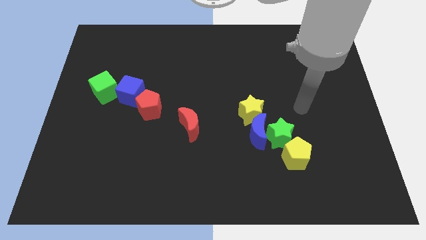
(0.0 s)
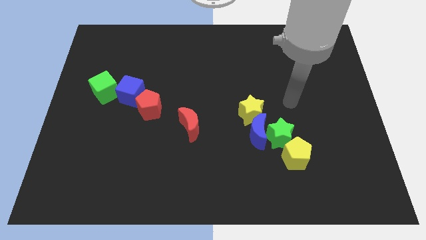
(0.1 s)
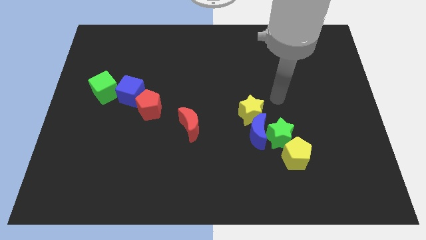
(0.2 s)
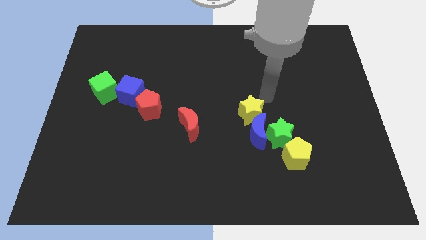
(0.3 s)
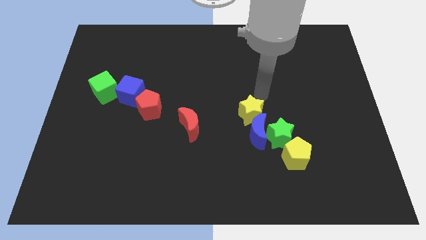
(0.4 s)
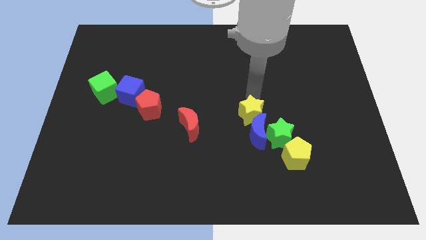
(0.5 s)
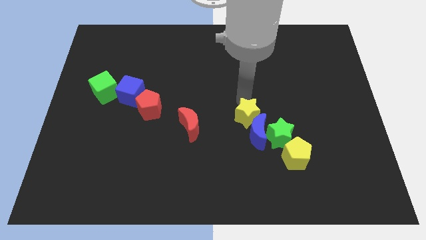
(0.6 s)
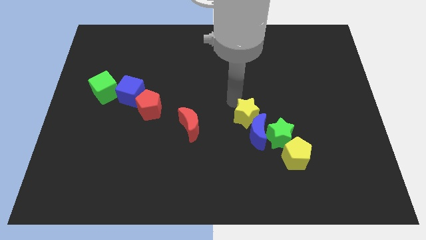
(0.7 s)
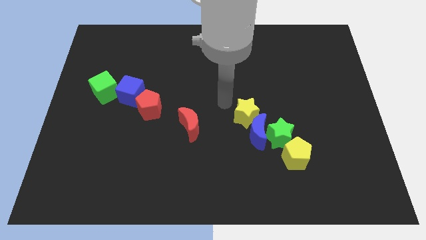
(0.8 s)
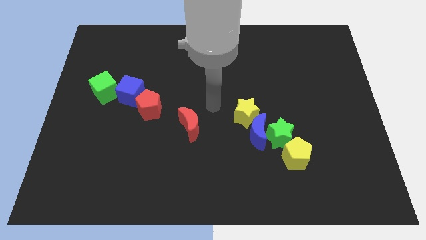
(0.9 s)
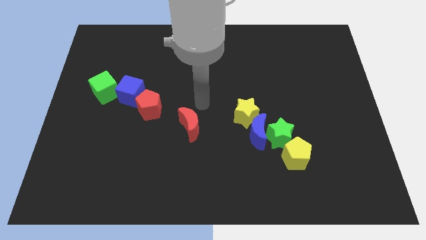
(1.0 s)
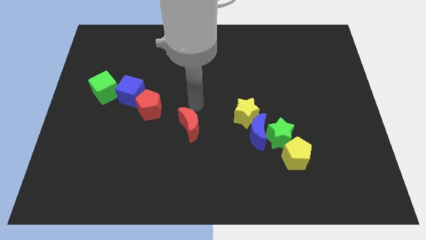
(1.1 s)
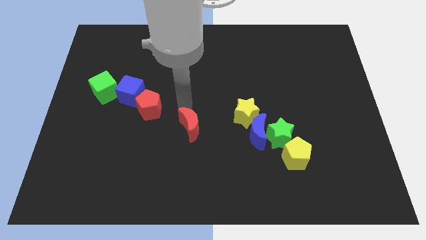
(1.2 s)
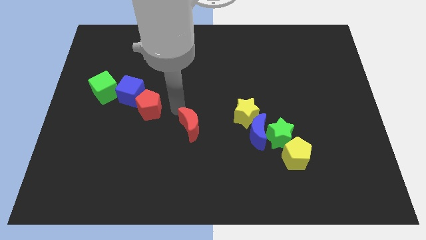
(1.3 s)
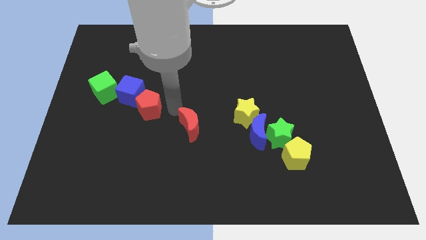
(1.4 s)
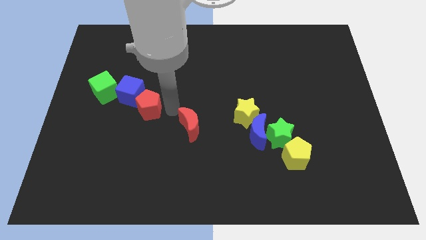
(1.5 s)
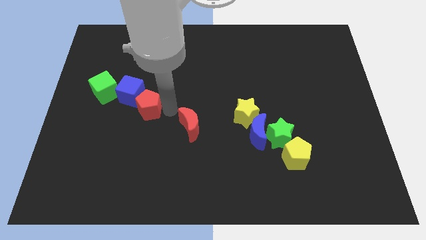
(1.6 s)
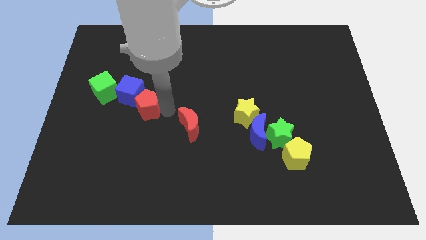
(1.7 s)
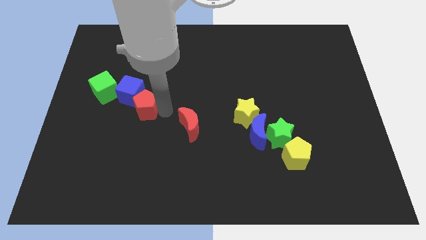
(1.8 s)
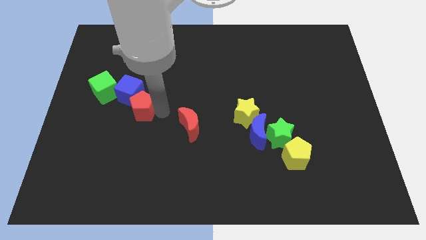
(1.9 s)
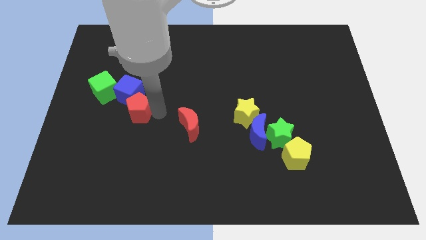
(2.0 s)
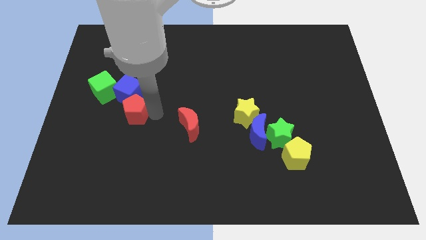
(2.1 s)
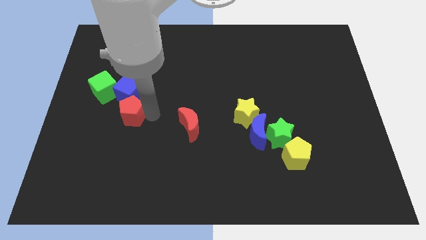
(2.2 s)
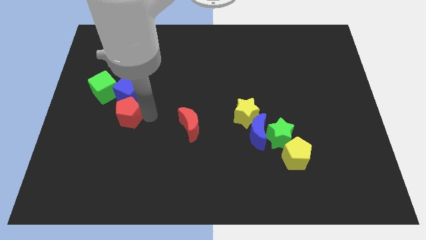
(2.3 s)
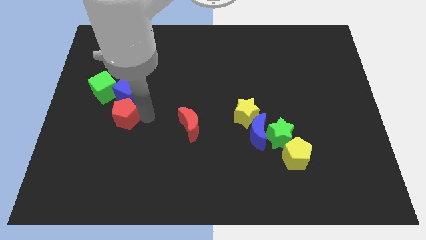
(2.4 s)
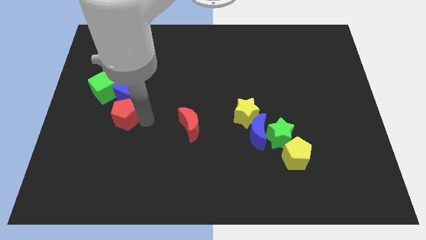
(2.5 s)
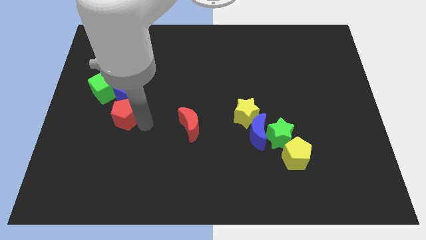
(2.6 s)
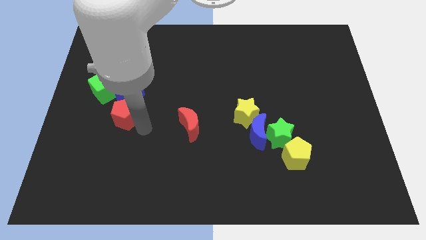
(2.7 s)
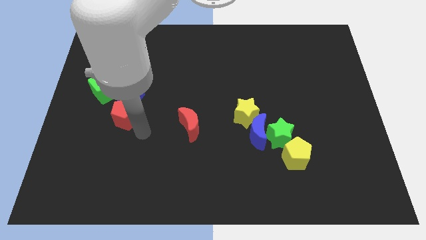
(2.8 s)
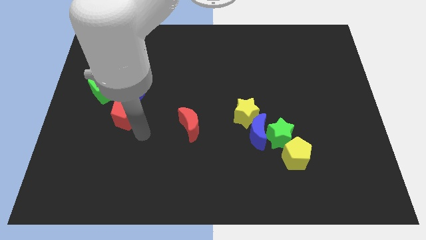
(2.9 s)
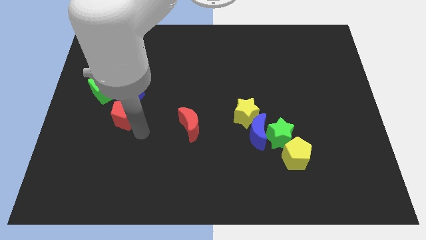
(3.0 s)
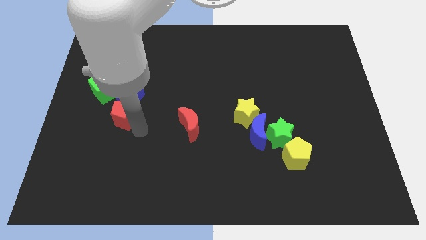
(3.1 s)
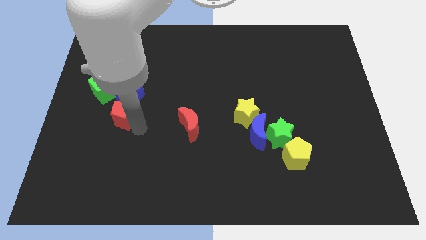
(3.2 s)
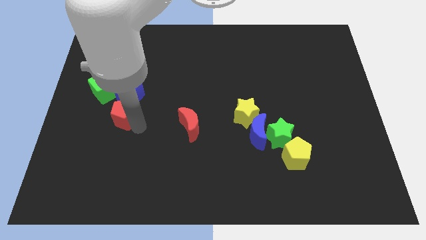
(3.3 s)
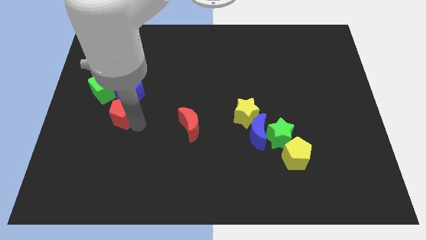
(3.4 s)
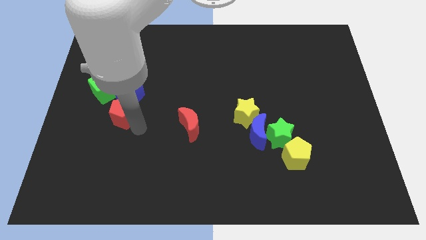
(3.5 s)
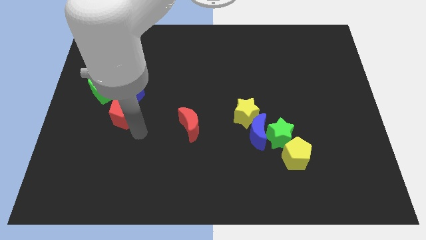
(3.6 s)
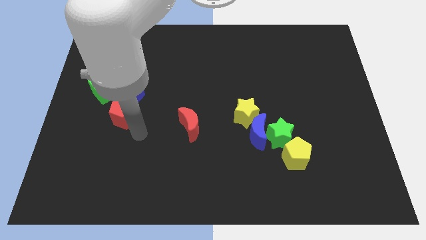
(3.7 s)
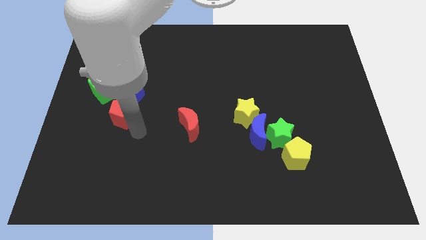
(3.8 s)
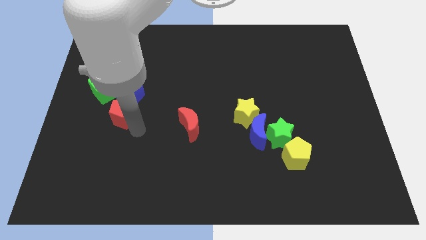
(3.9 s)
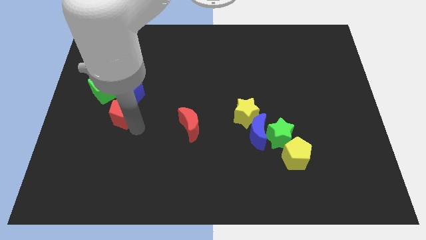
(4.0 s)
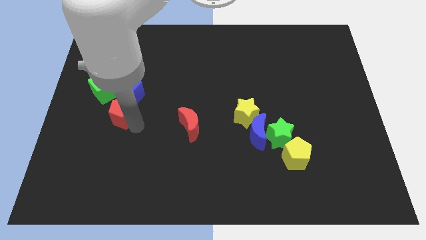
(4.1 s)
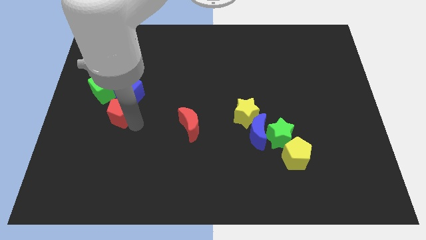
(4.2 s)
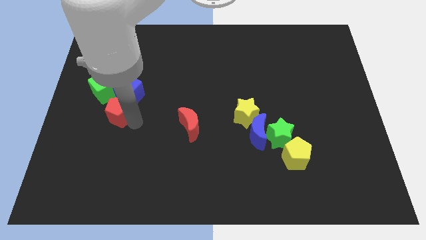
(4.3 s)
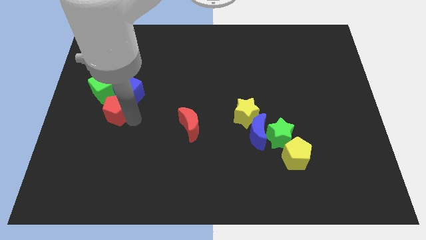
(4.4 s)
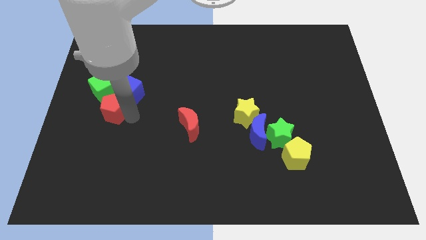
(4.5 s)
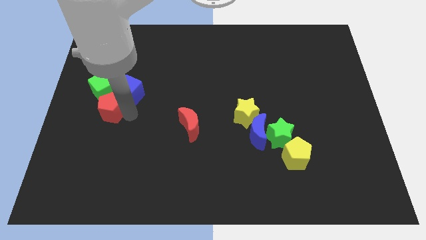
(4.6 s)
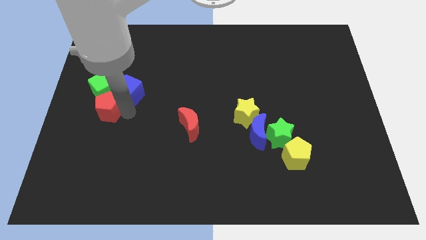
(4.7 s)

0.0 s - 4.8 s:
slide the red pentagon close to the green cube

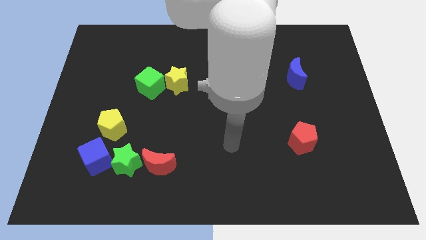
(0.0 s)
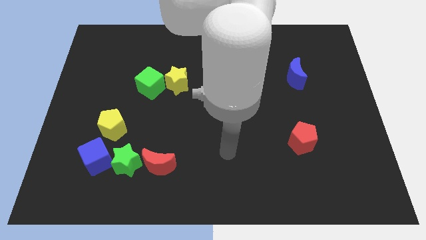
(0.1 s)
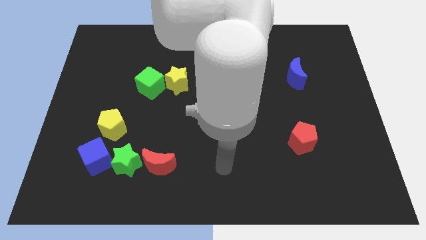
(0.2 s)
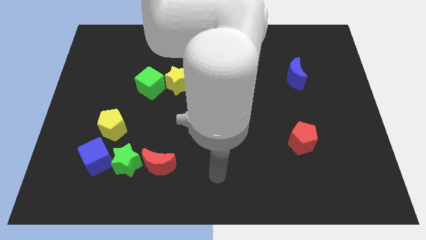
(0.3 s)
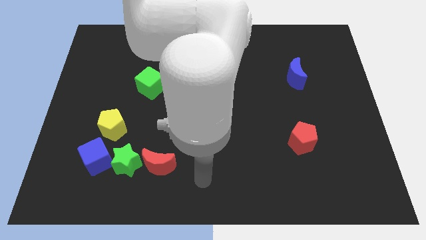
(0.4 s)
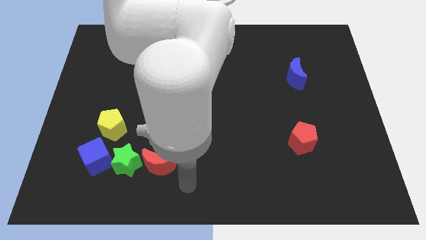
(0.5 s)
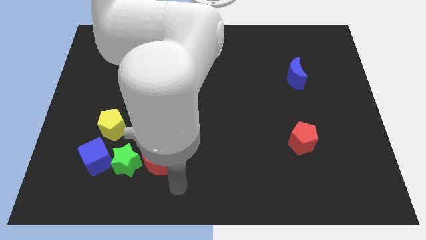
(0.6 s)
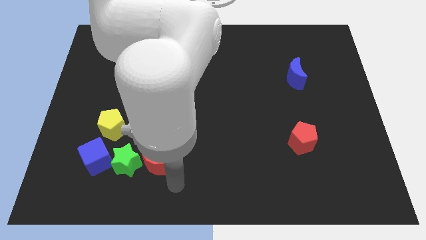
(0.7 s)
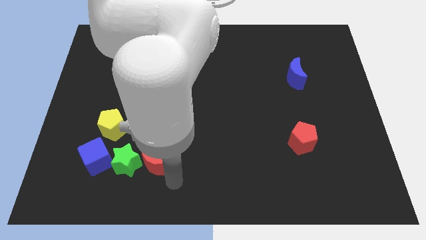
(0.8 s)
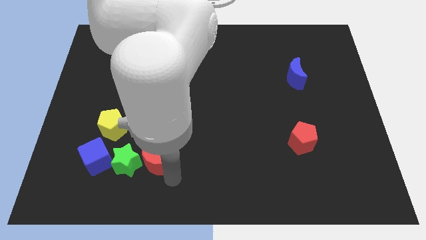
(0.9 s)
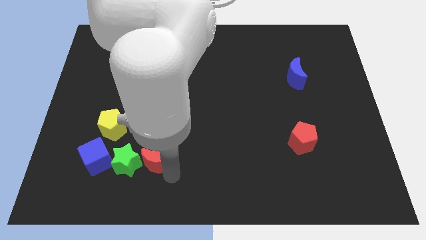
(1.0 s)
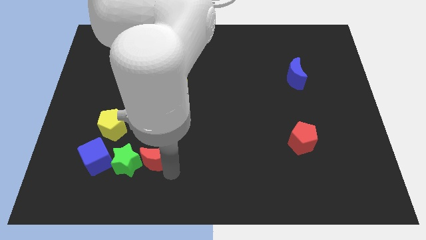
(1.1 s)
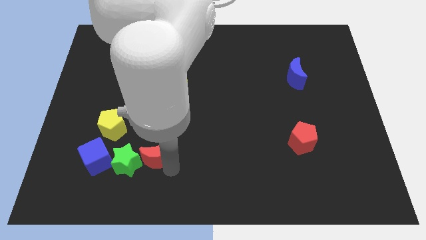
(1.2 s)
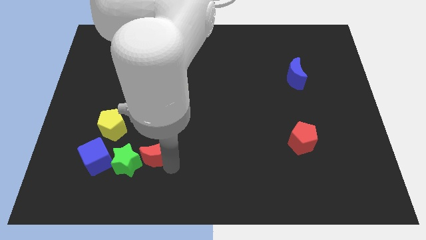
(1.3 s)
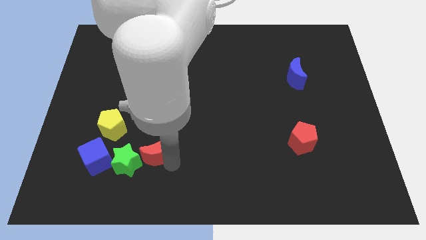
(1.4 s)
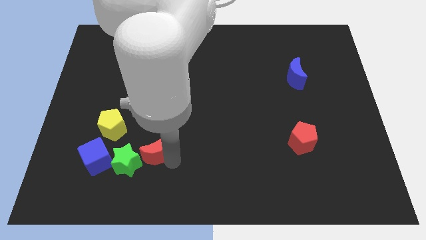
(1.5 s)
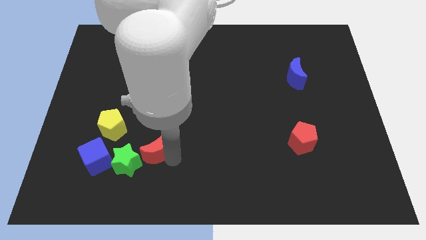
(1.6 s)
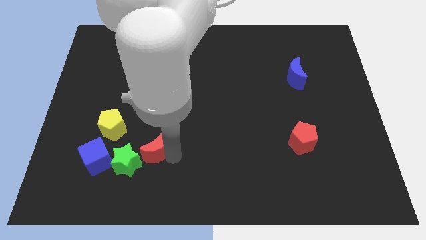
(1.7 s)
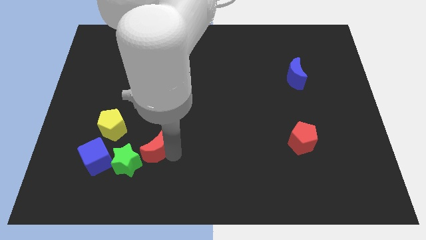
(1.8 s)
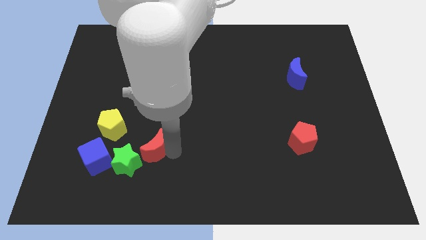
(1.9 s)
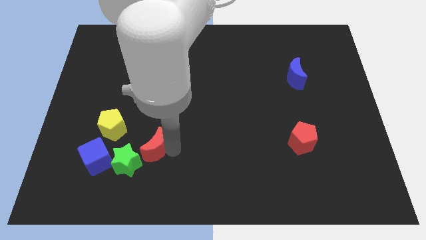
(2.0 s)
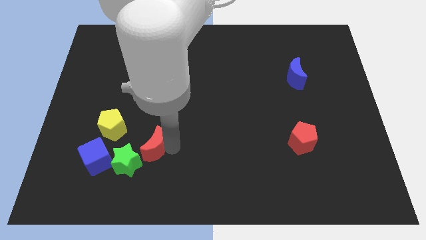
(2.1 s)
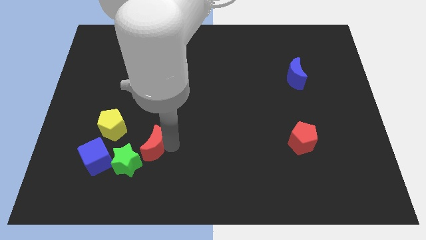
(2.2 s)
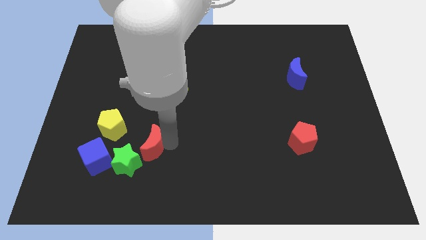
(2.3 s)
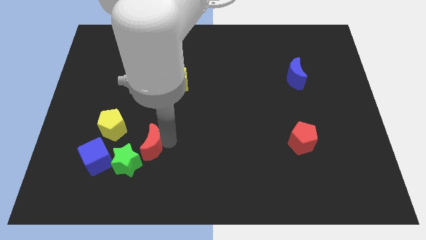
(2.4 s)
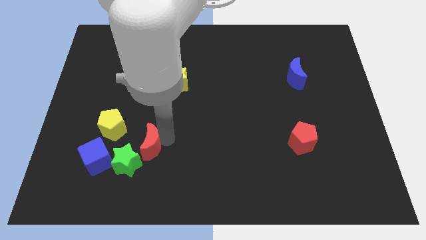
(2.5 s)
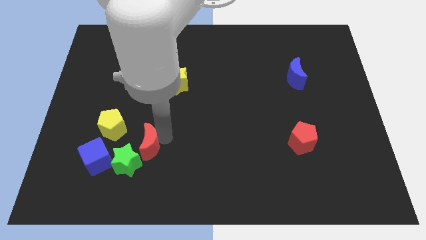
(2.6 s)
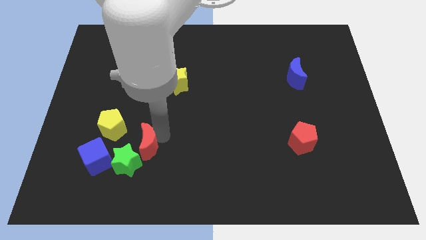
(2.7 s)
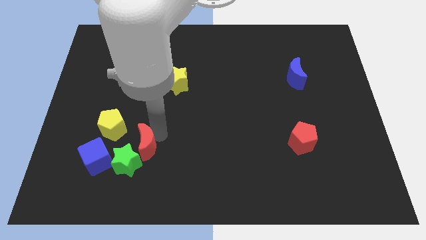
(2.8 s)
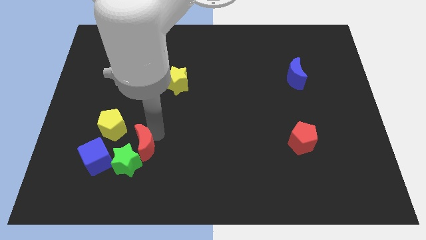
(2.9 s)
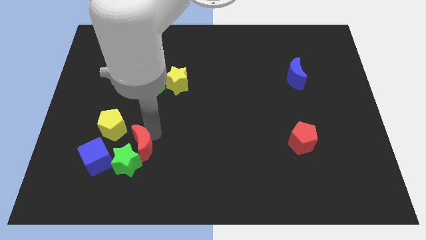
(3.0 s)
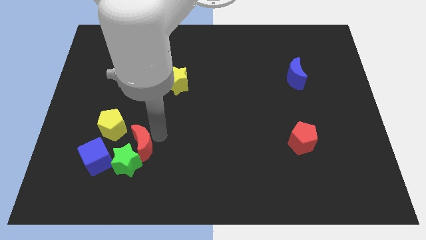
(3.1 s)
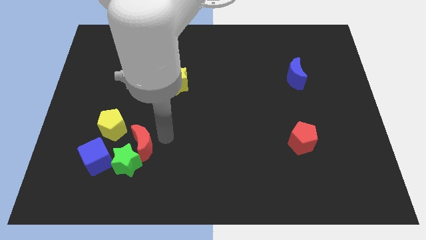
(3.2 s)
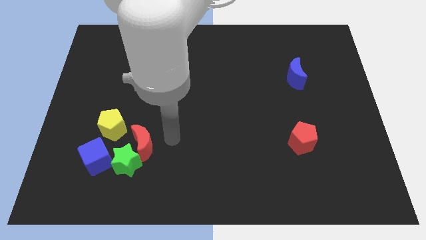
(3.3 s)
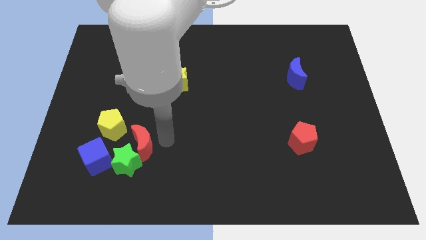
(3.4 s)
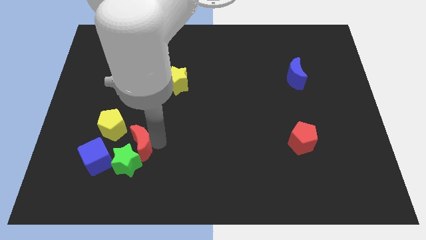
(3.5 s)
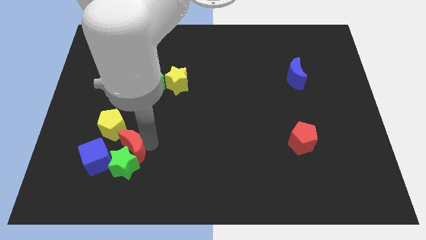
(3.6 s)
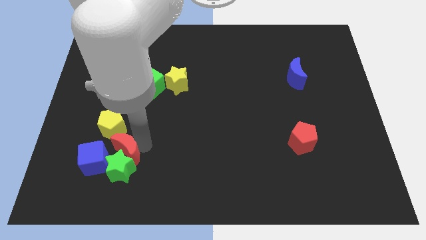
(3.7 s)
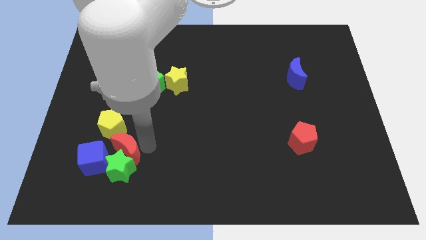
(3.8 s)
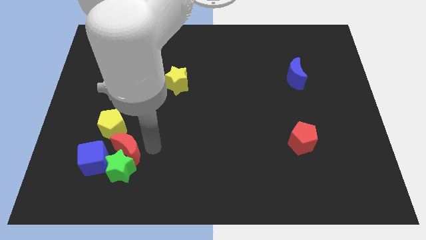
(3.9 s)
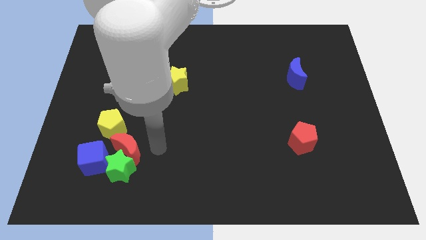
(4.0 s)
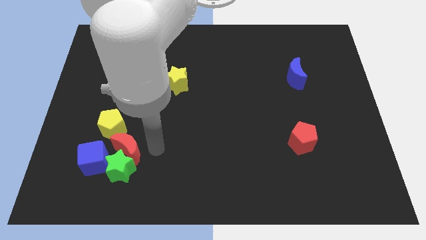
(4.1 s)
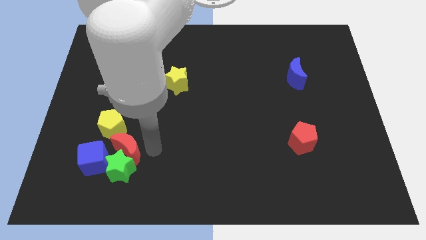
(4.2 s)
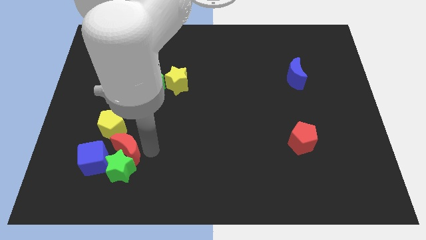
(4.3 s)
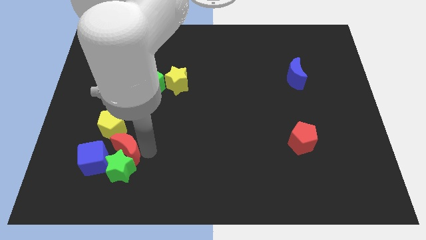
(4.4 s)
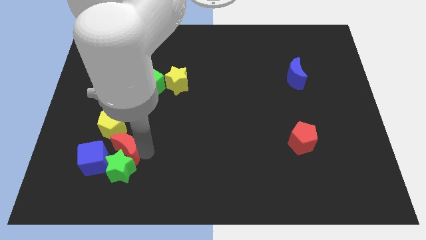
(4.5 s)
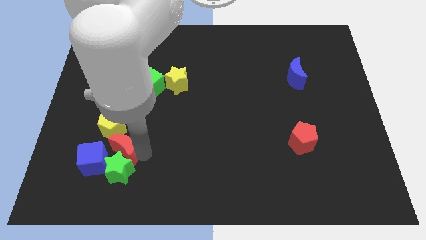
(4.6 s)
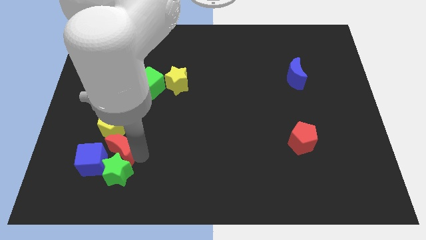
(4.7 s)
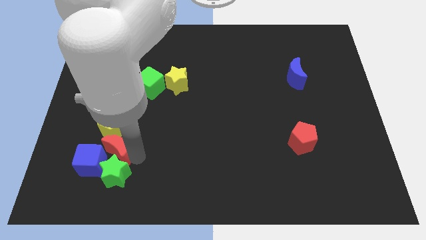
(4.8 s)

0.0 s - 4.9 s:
push the red moon close to the blue cube
